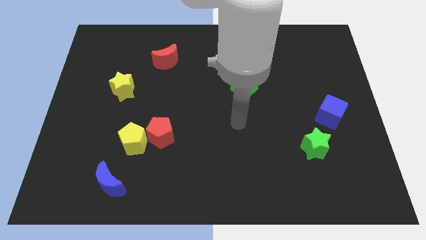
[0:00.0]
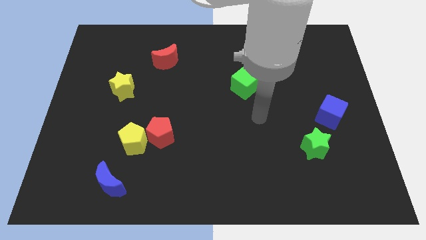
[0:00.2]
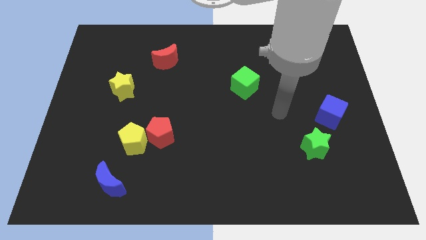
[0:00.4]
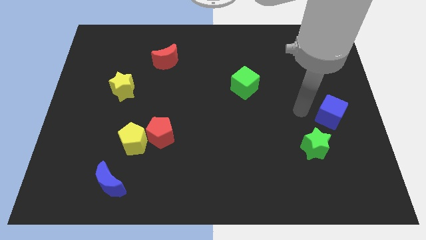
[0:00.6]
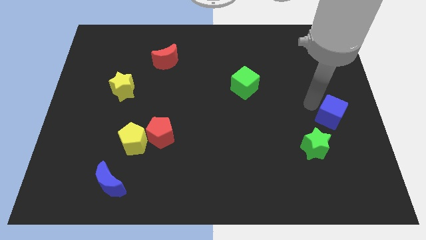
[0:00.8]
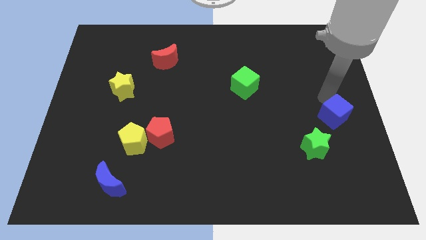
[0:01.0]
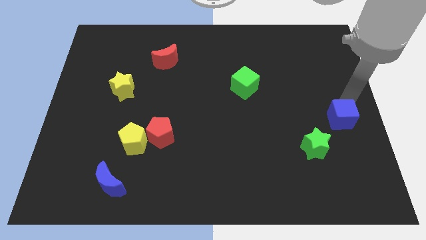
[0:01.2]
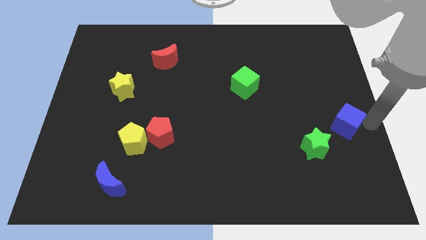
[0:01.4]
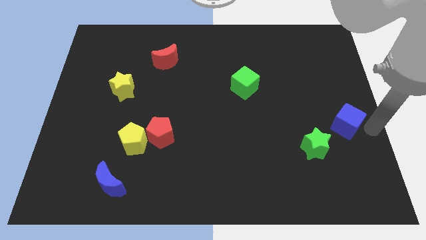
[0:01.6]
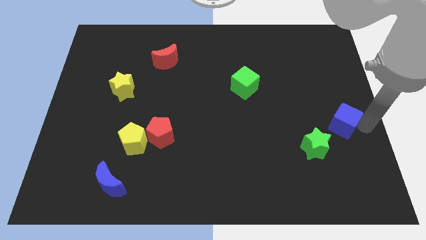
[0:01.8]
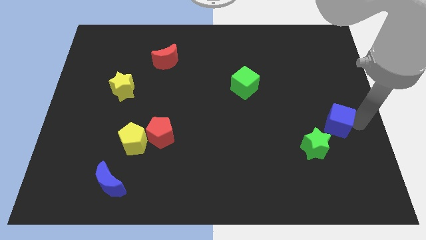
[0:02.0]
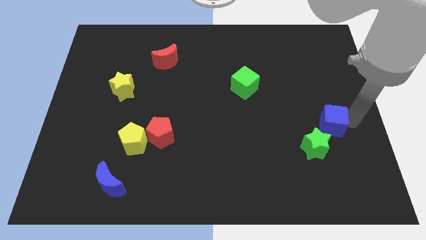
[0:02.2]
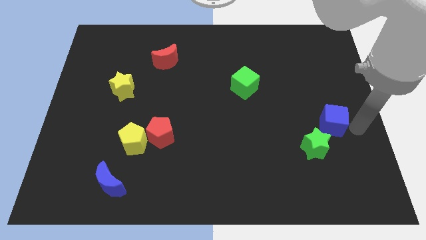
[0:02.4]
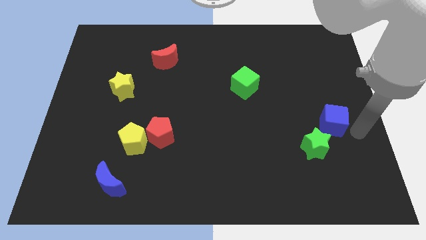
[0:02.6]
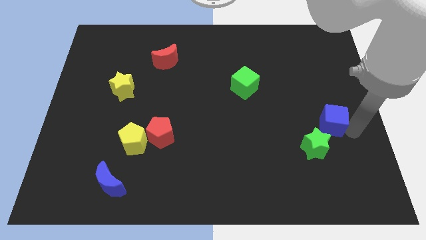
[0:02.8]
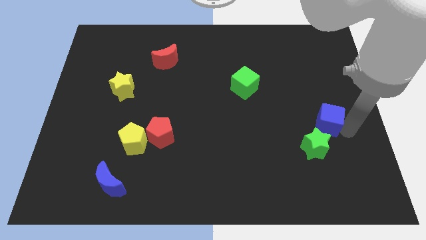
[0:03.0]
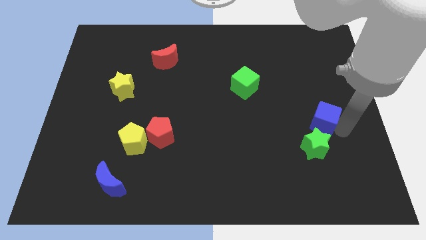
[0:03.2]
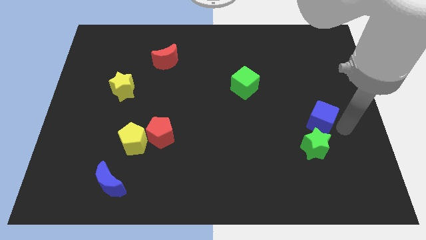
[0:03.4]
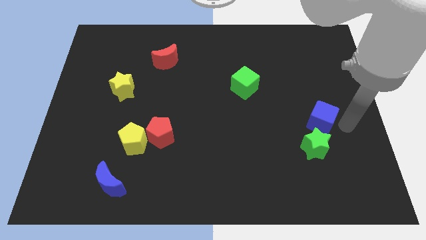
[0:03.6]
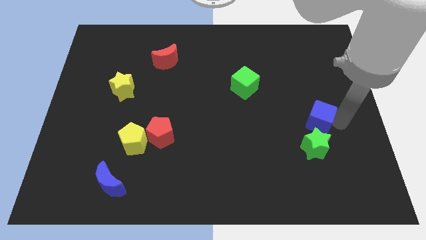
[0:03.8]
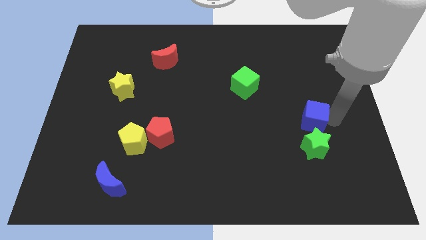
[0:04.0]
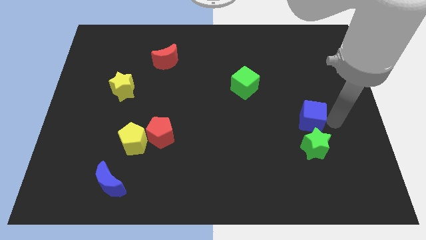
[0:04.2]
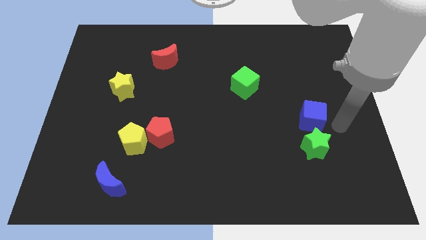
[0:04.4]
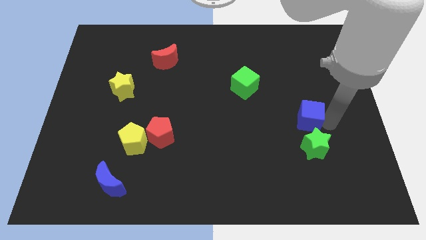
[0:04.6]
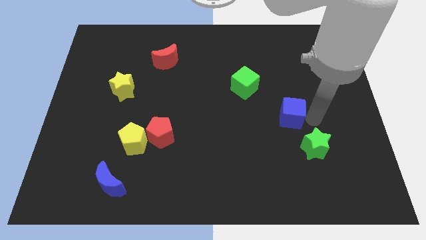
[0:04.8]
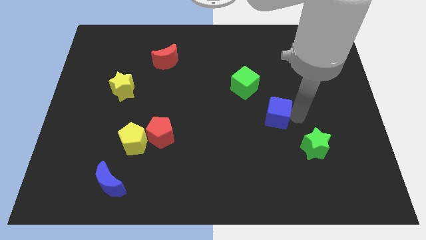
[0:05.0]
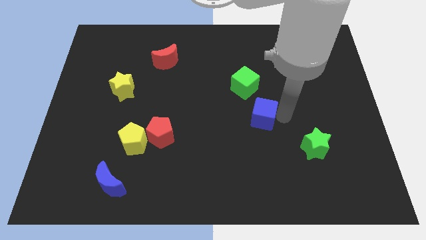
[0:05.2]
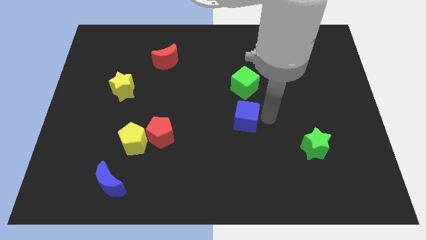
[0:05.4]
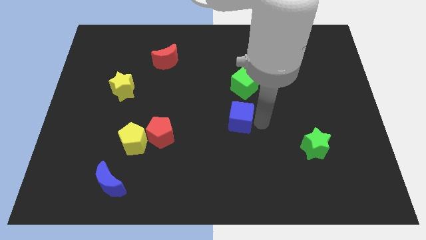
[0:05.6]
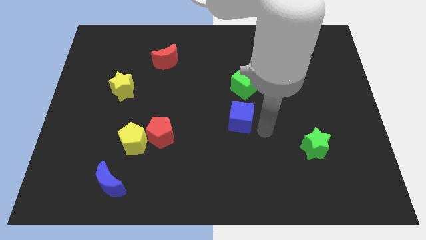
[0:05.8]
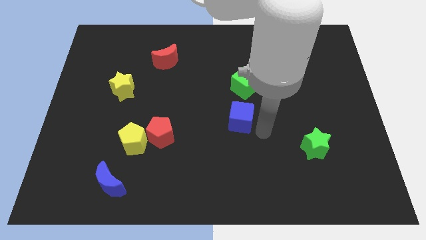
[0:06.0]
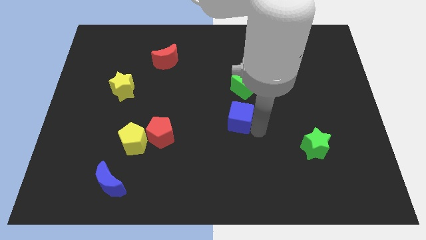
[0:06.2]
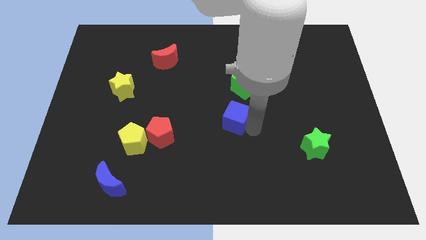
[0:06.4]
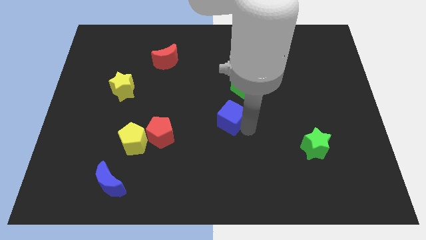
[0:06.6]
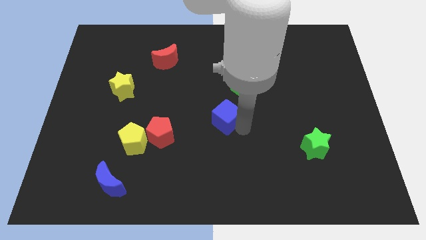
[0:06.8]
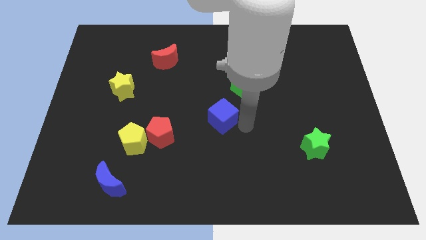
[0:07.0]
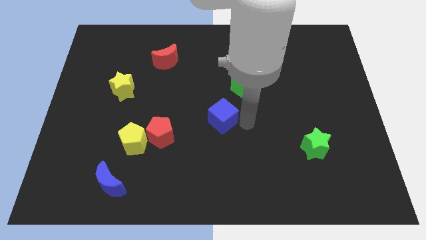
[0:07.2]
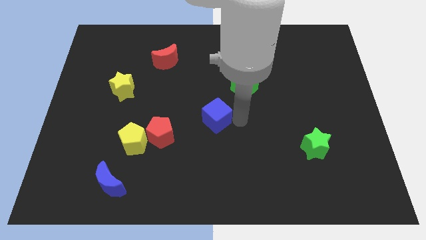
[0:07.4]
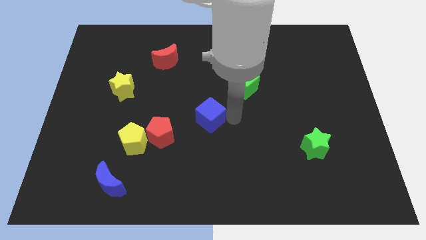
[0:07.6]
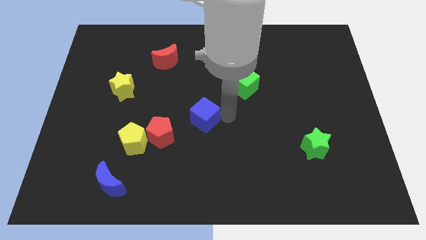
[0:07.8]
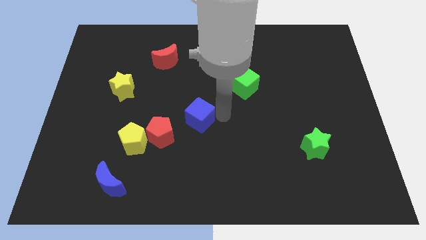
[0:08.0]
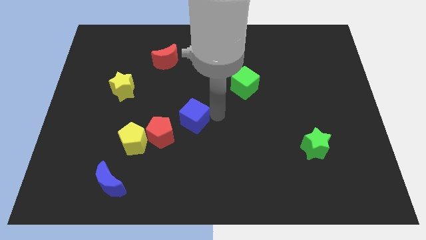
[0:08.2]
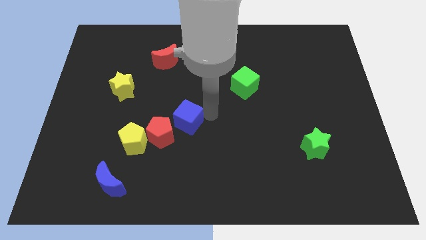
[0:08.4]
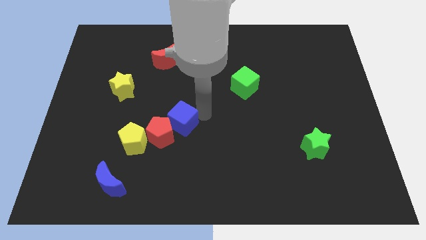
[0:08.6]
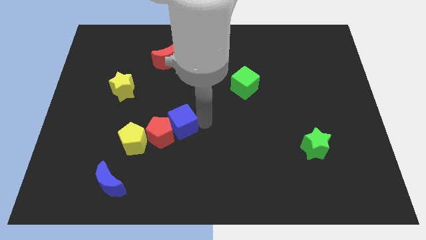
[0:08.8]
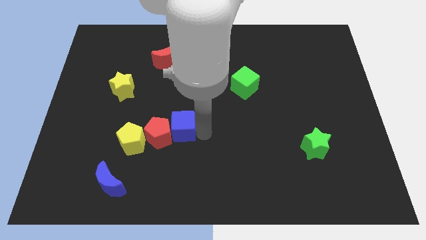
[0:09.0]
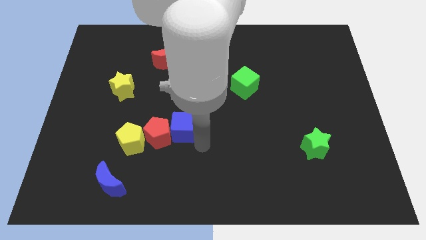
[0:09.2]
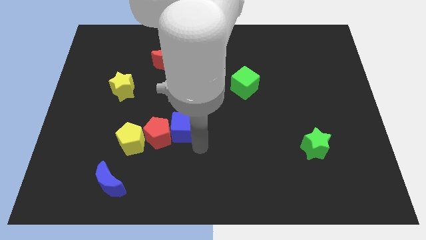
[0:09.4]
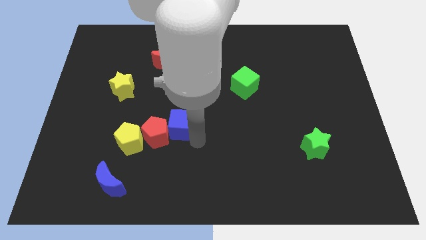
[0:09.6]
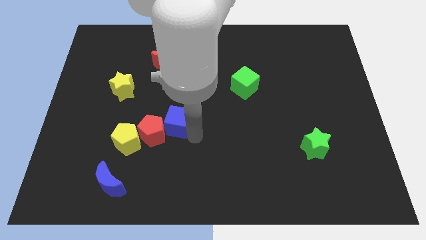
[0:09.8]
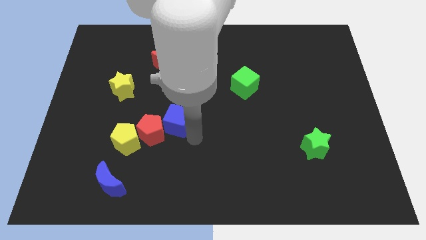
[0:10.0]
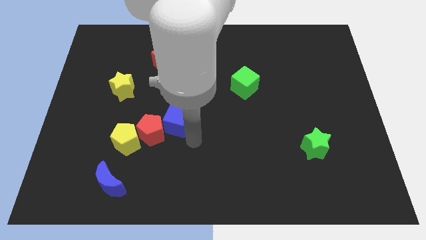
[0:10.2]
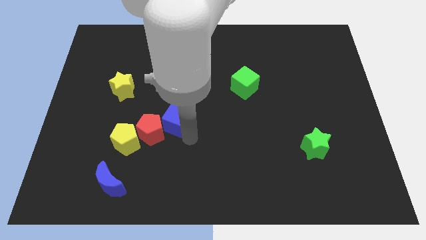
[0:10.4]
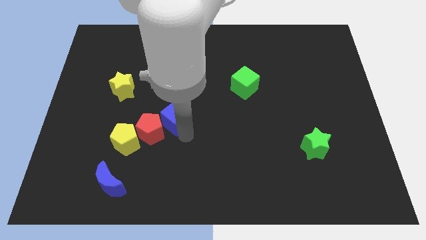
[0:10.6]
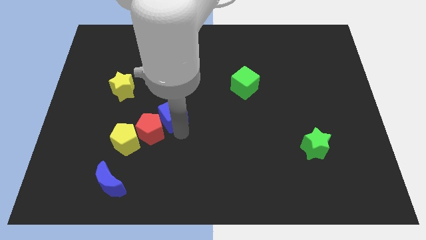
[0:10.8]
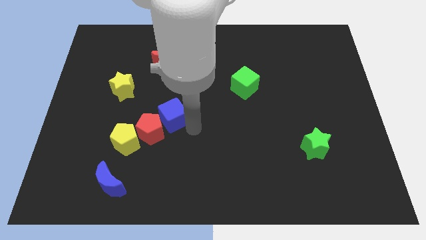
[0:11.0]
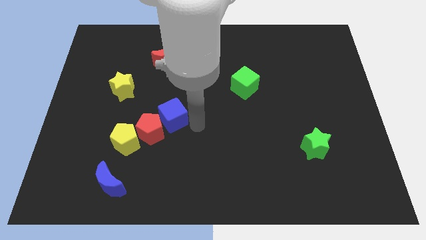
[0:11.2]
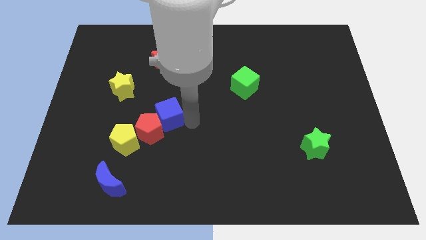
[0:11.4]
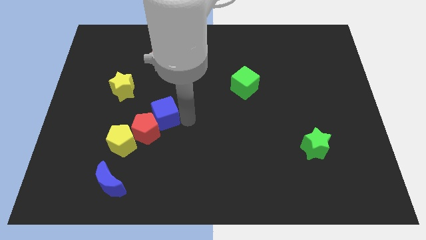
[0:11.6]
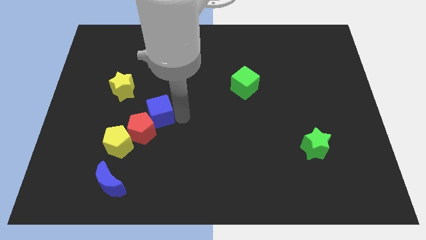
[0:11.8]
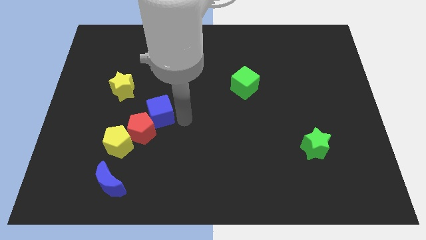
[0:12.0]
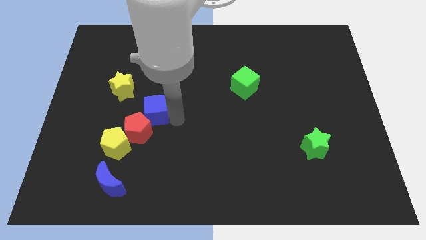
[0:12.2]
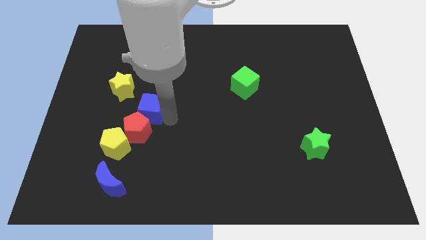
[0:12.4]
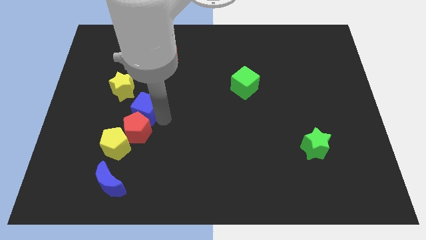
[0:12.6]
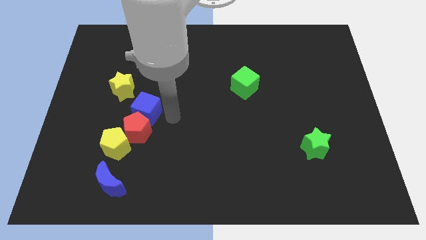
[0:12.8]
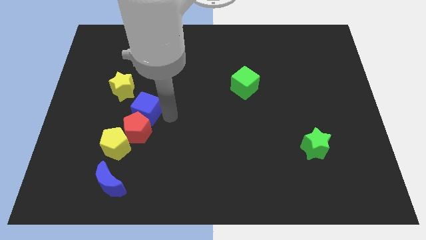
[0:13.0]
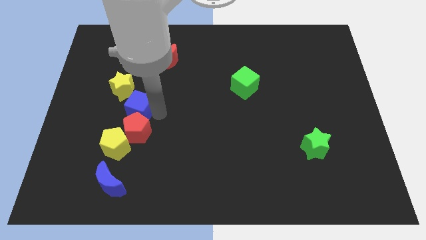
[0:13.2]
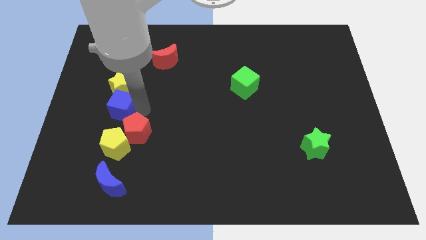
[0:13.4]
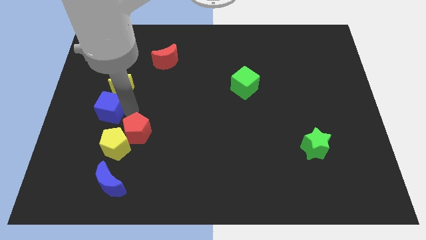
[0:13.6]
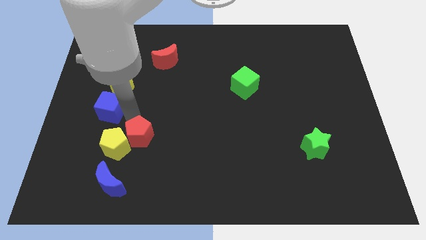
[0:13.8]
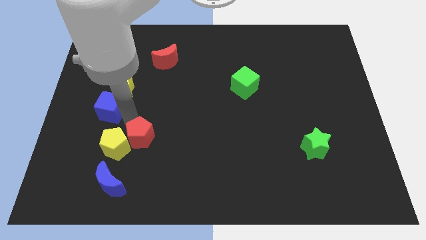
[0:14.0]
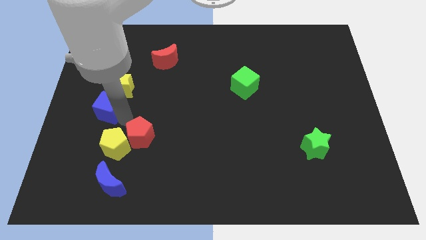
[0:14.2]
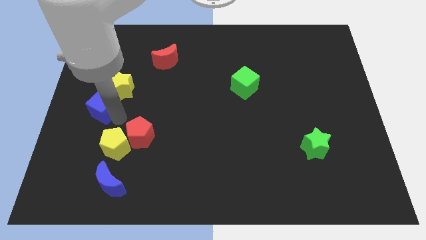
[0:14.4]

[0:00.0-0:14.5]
slide the blue cube to the left side of the board
